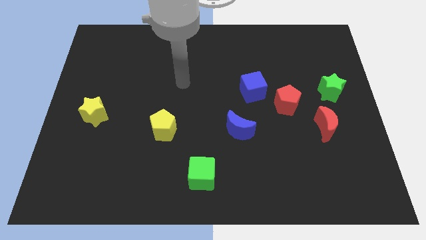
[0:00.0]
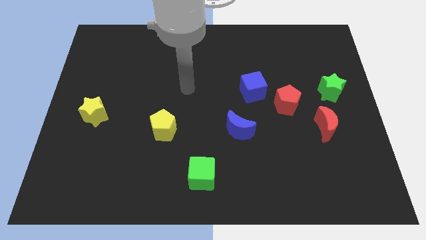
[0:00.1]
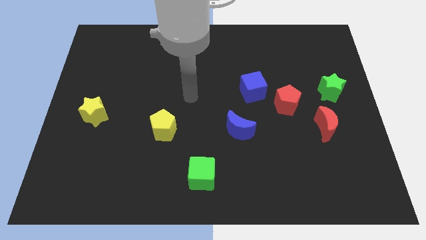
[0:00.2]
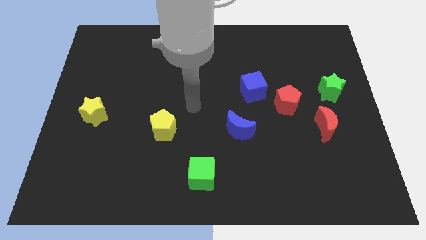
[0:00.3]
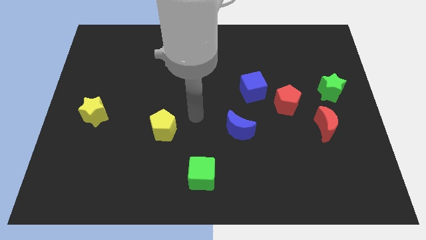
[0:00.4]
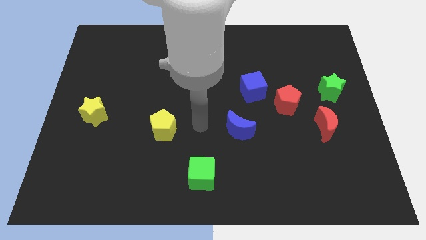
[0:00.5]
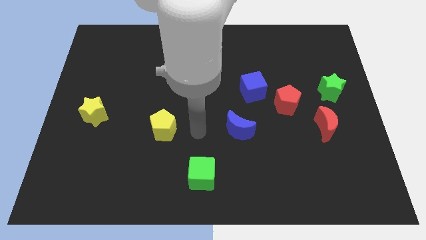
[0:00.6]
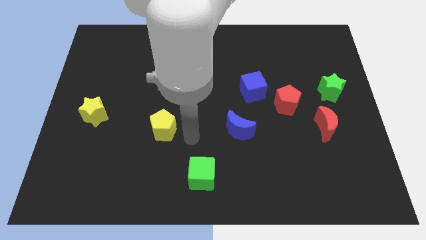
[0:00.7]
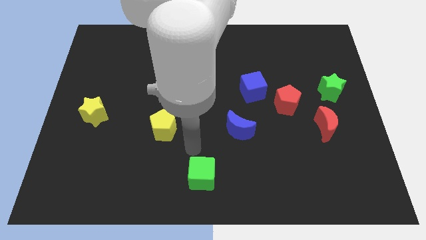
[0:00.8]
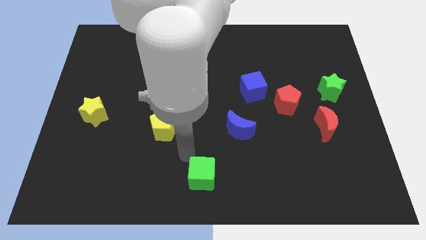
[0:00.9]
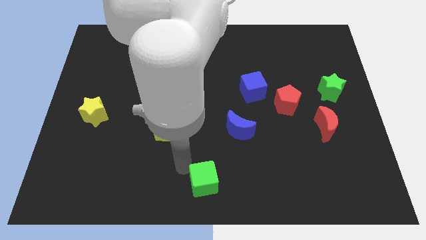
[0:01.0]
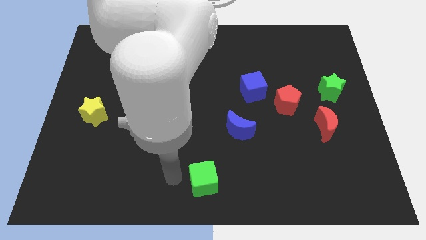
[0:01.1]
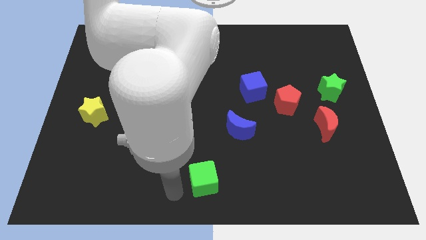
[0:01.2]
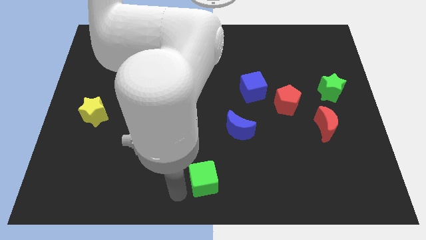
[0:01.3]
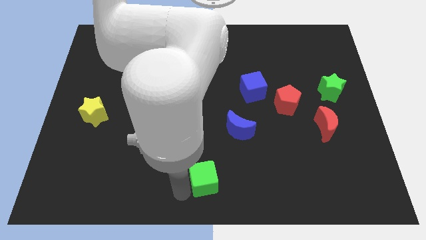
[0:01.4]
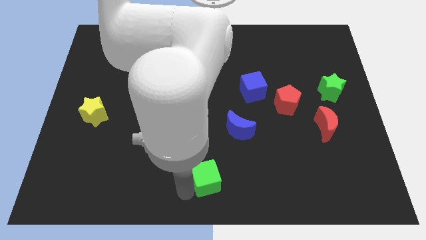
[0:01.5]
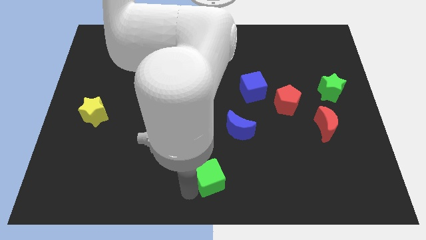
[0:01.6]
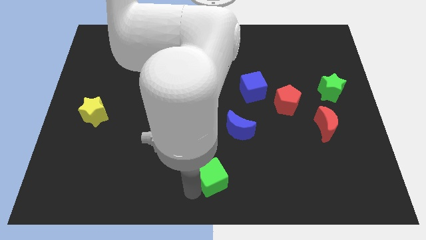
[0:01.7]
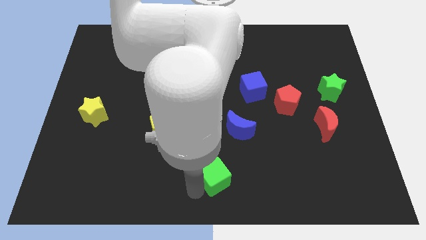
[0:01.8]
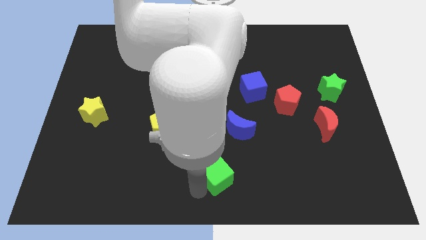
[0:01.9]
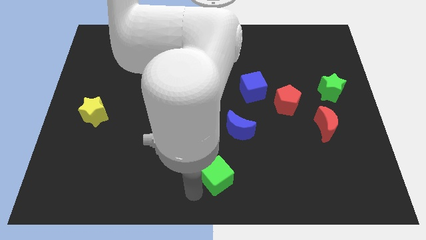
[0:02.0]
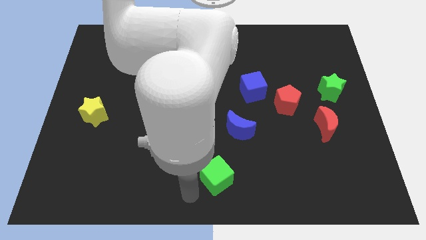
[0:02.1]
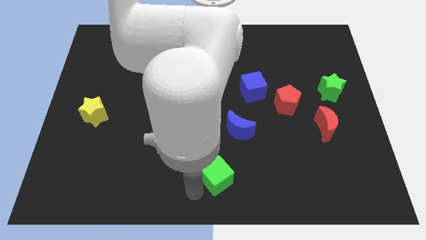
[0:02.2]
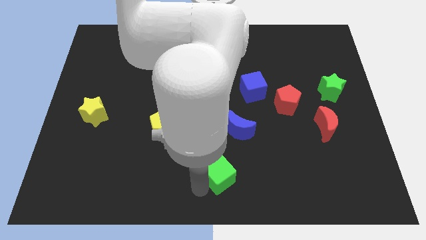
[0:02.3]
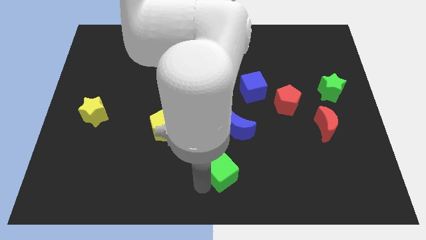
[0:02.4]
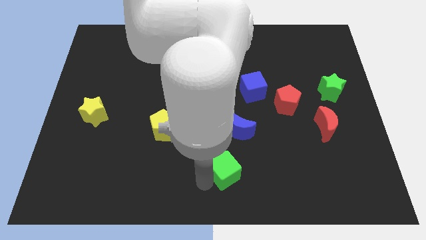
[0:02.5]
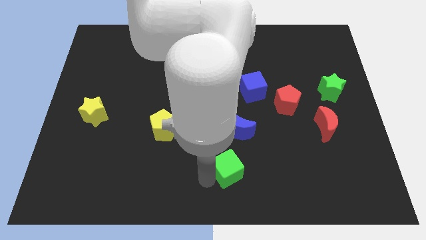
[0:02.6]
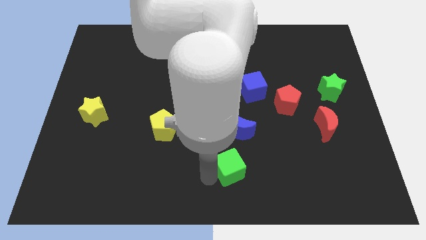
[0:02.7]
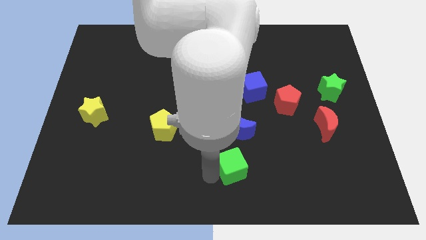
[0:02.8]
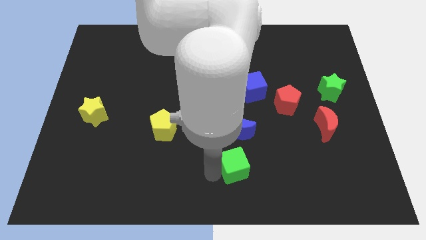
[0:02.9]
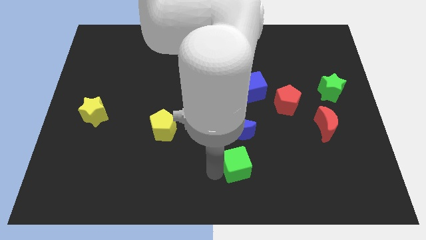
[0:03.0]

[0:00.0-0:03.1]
move the green cube a little to the right

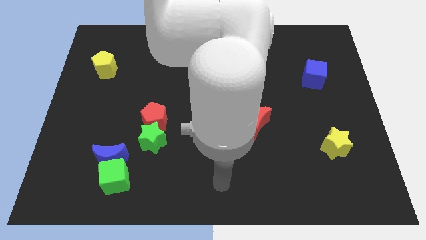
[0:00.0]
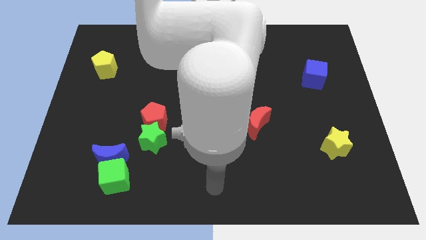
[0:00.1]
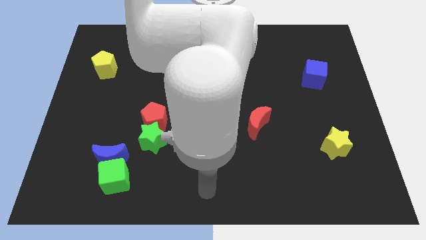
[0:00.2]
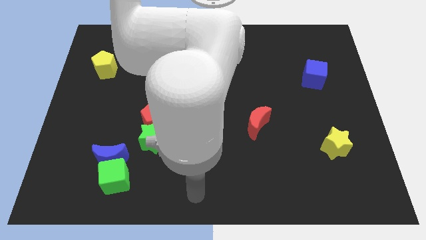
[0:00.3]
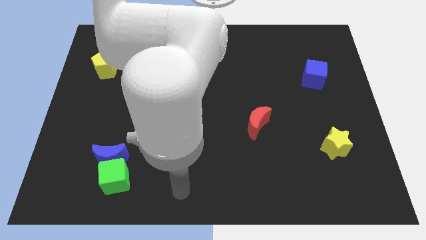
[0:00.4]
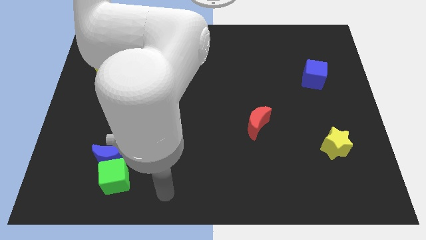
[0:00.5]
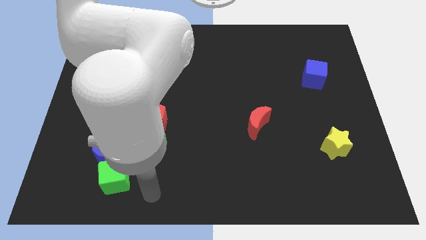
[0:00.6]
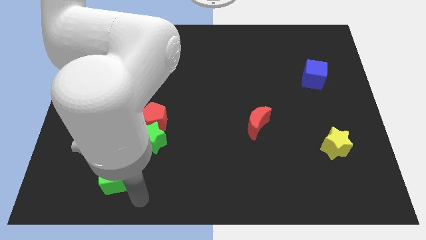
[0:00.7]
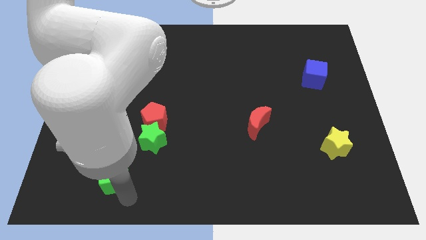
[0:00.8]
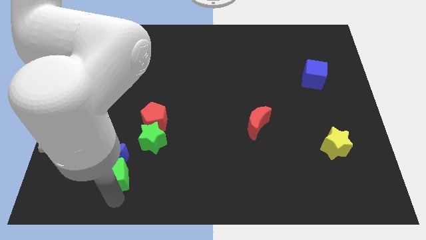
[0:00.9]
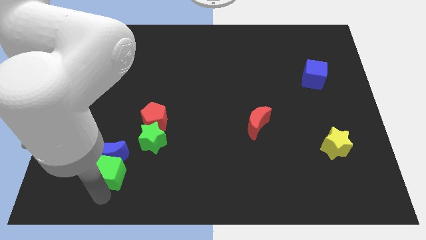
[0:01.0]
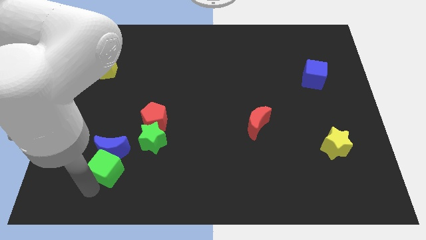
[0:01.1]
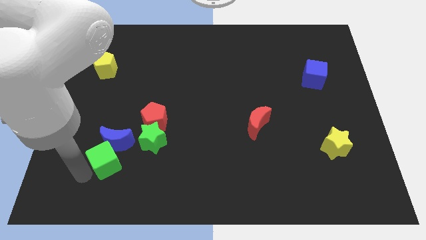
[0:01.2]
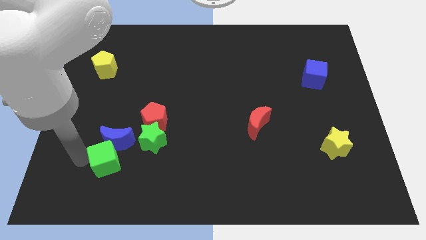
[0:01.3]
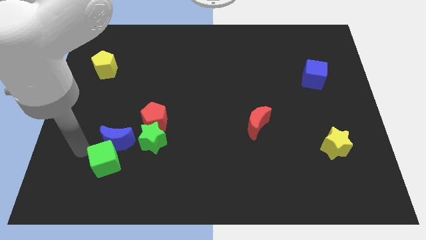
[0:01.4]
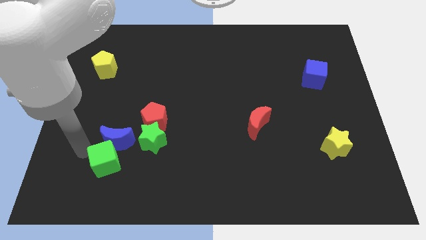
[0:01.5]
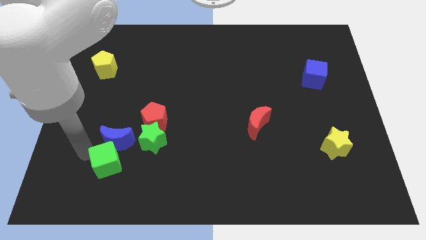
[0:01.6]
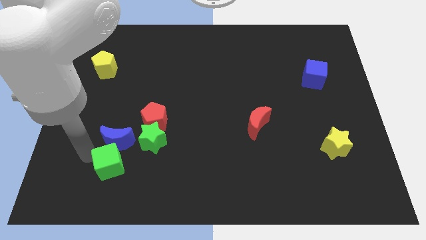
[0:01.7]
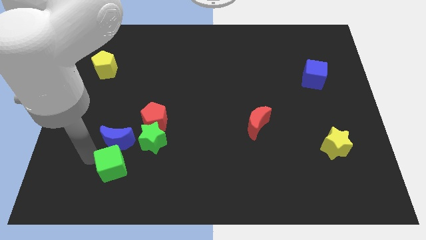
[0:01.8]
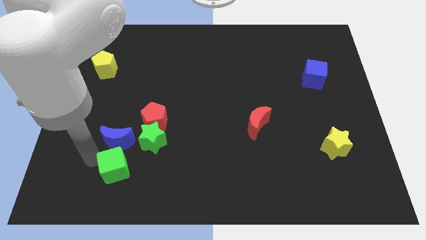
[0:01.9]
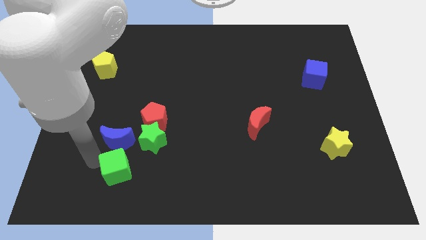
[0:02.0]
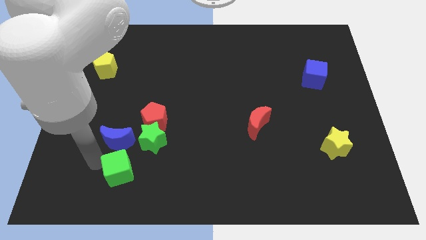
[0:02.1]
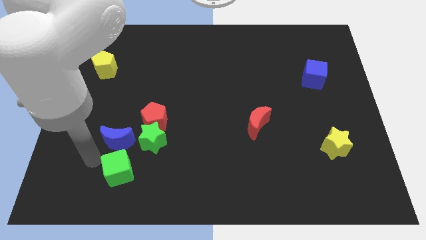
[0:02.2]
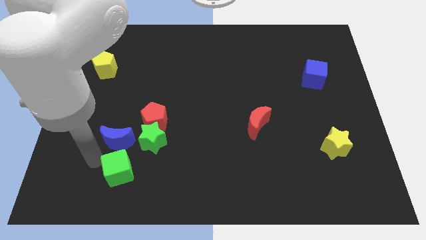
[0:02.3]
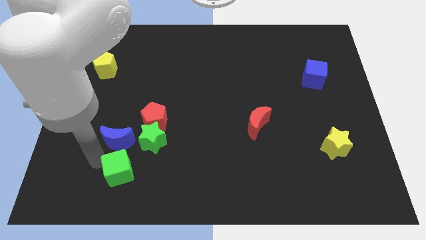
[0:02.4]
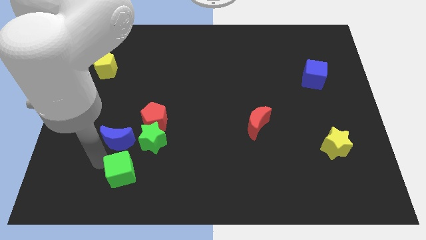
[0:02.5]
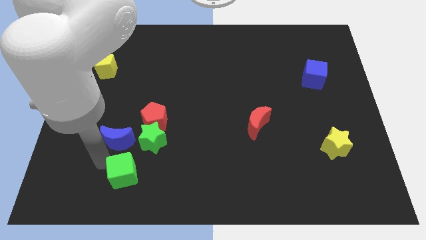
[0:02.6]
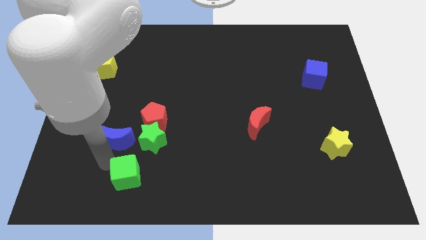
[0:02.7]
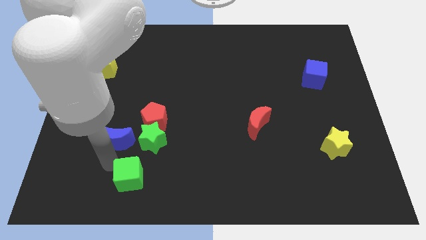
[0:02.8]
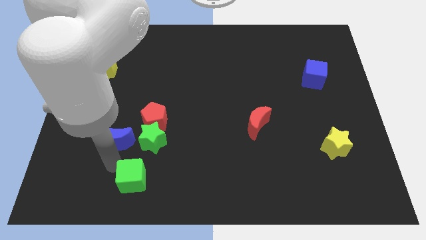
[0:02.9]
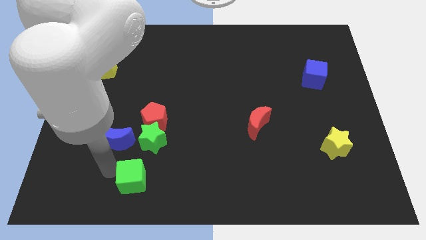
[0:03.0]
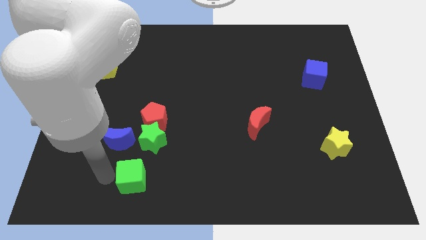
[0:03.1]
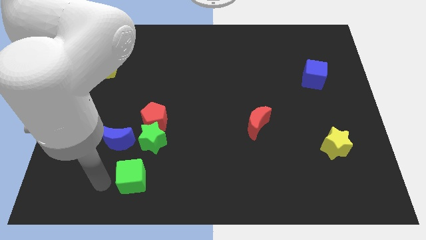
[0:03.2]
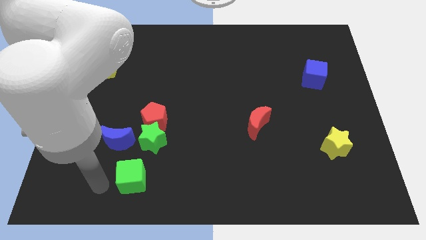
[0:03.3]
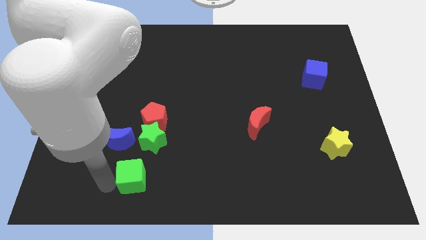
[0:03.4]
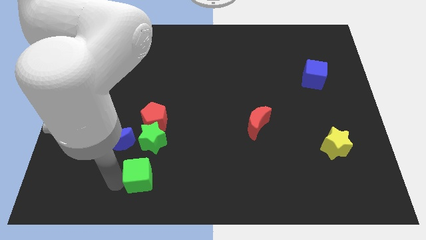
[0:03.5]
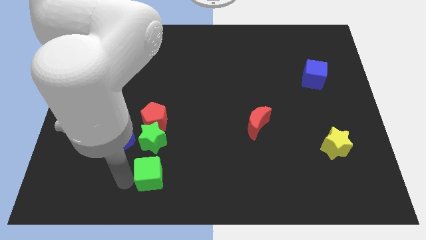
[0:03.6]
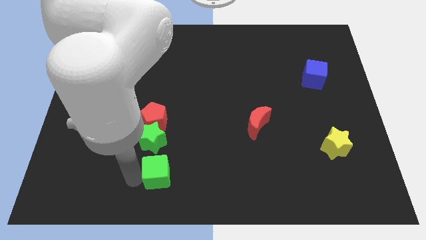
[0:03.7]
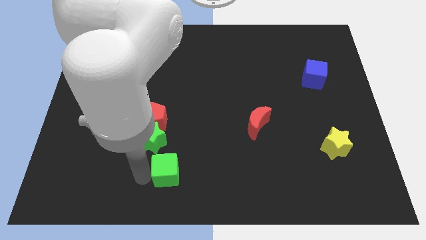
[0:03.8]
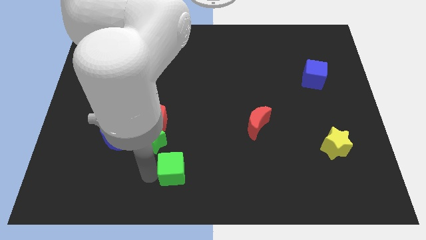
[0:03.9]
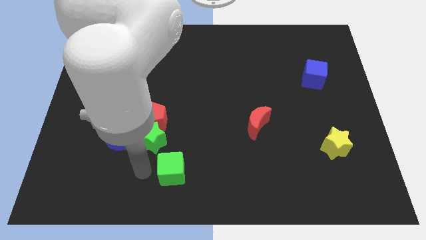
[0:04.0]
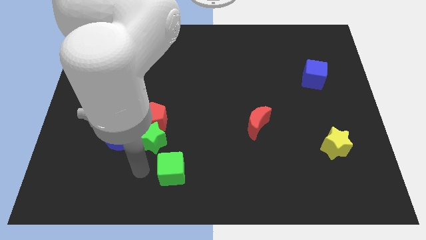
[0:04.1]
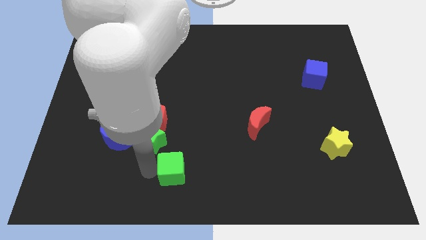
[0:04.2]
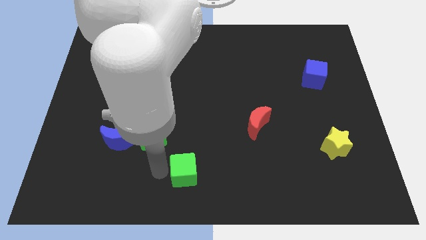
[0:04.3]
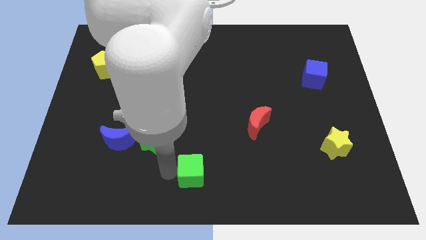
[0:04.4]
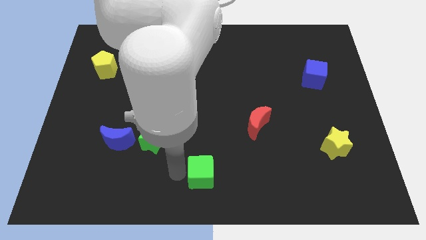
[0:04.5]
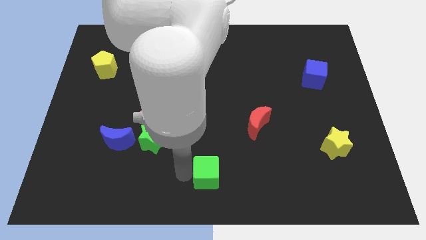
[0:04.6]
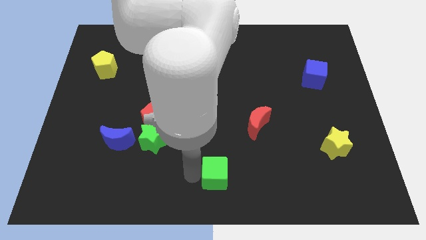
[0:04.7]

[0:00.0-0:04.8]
move the green cube right
